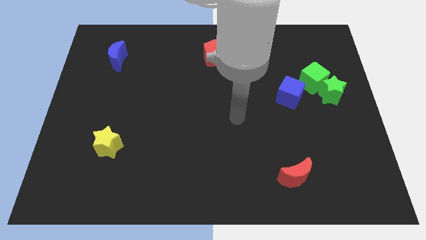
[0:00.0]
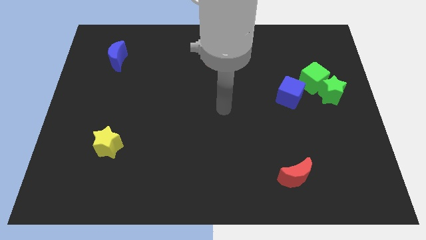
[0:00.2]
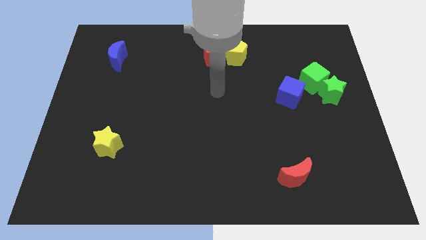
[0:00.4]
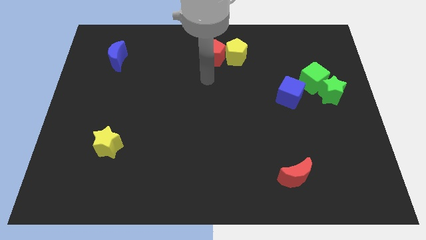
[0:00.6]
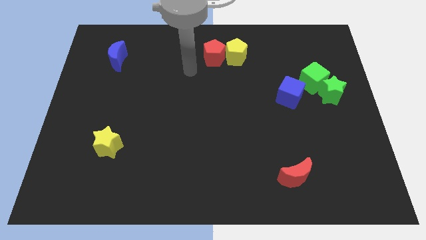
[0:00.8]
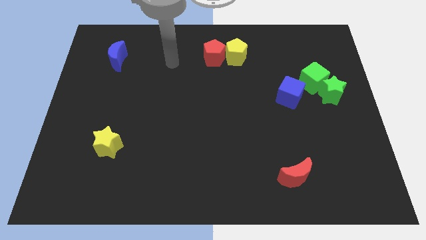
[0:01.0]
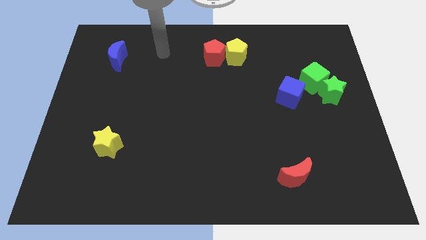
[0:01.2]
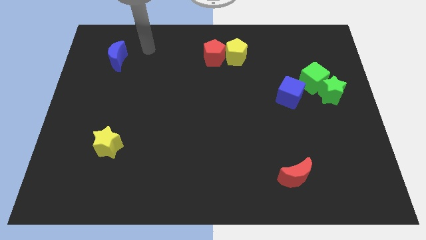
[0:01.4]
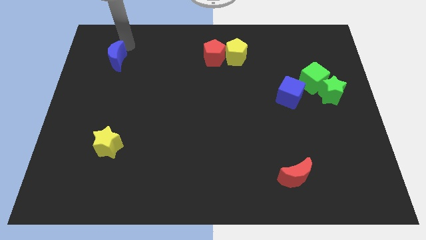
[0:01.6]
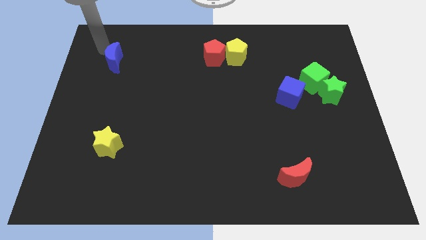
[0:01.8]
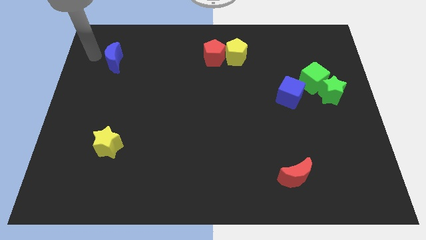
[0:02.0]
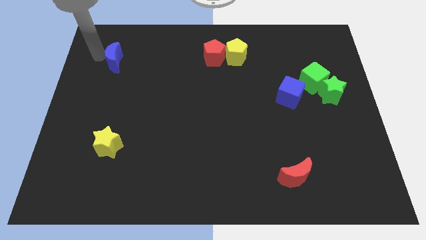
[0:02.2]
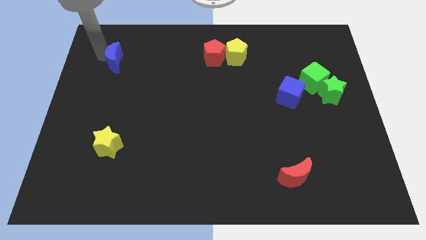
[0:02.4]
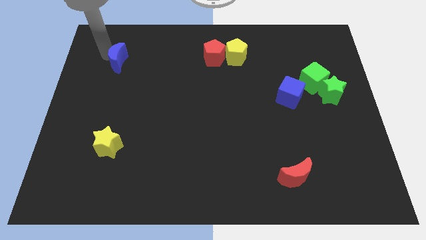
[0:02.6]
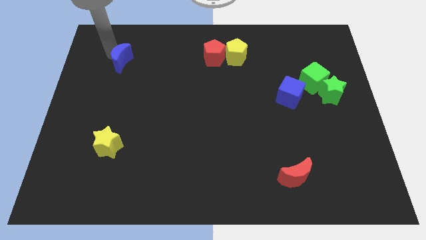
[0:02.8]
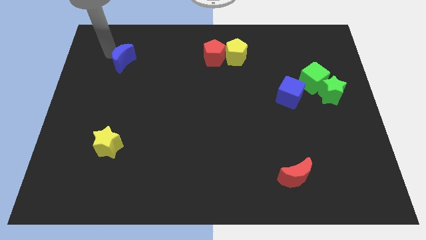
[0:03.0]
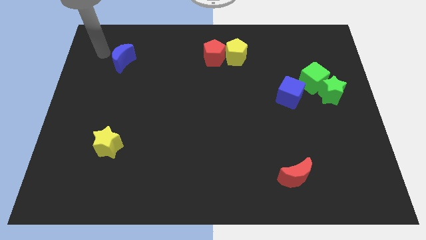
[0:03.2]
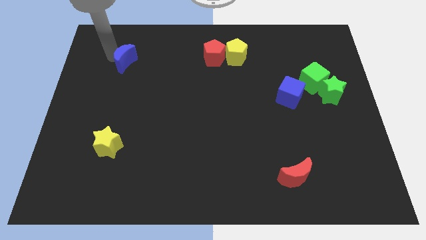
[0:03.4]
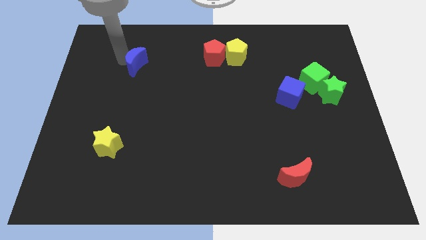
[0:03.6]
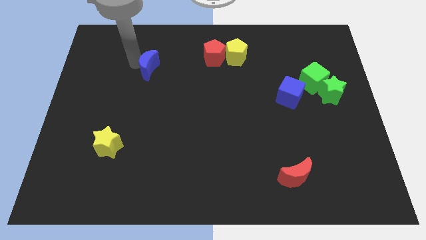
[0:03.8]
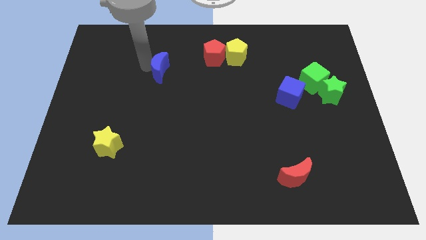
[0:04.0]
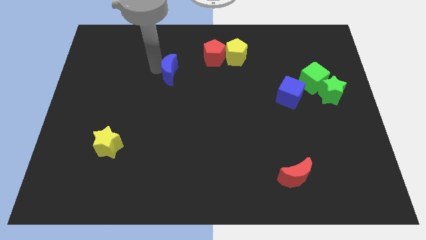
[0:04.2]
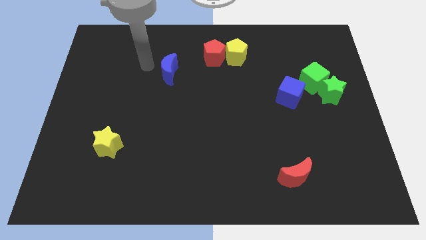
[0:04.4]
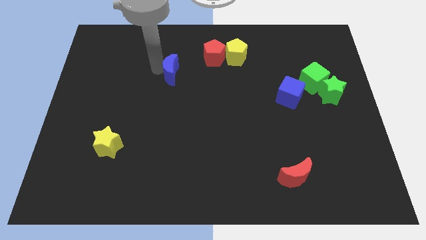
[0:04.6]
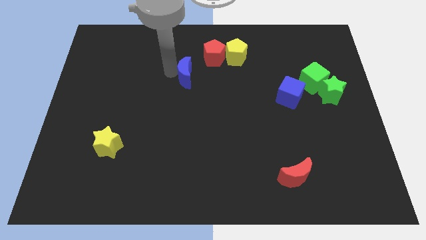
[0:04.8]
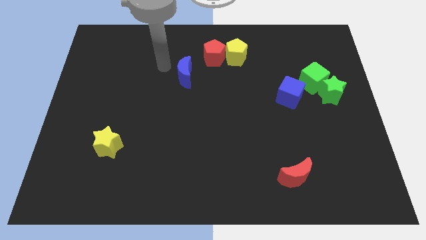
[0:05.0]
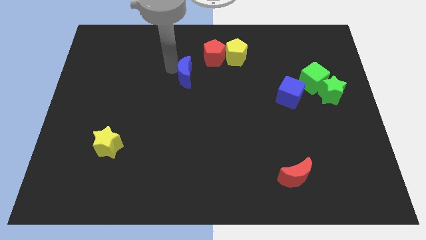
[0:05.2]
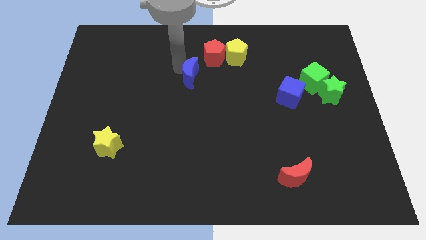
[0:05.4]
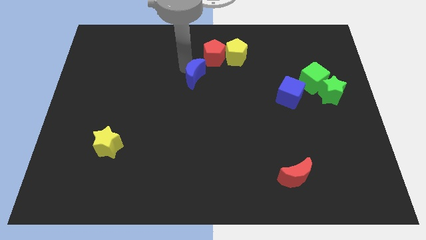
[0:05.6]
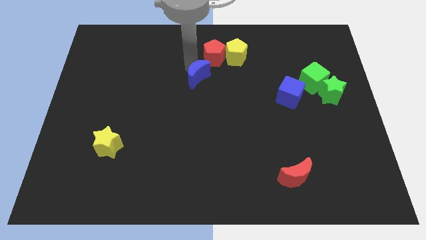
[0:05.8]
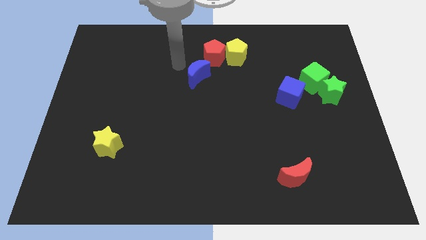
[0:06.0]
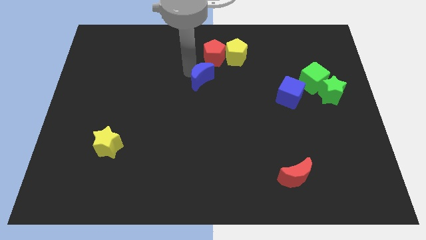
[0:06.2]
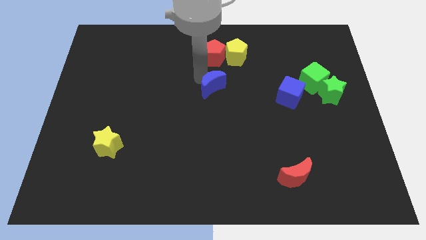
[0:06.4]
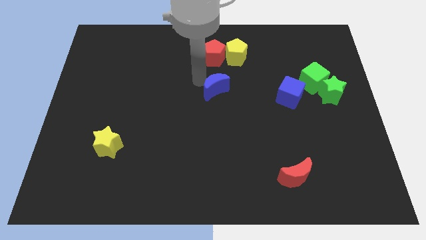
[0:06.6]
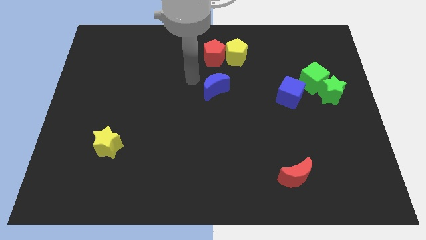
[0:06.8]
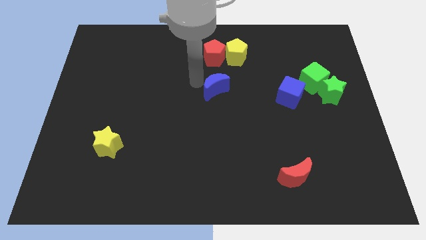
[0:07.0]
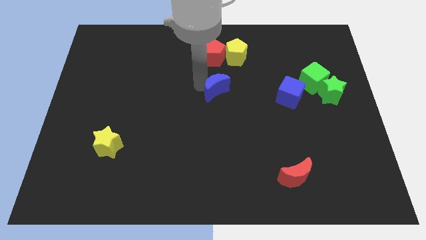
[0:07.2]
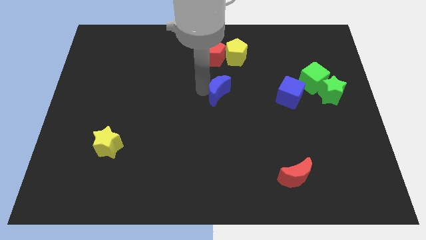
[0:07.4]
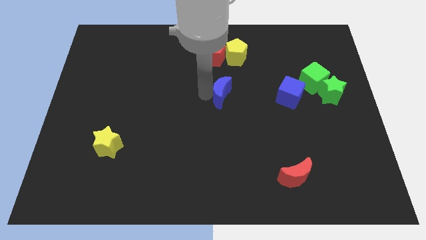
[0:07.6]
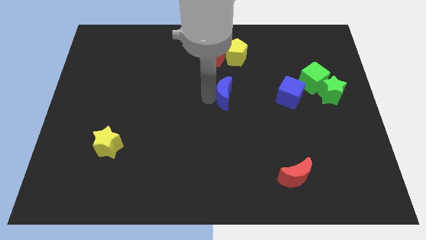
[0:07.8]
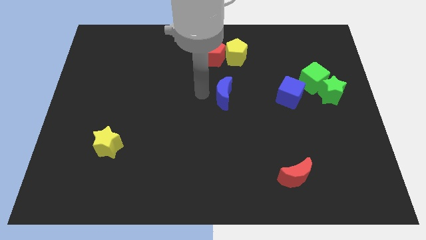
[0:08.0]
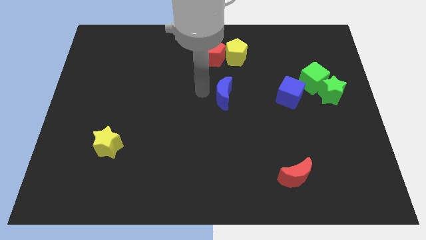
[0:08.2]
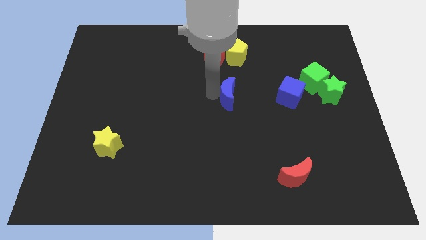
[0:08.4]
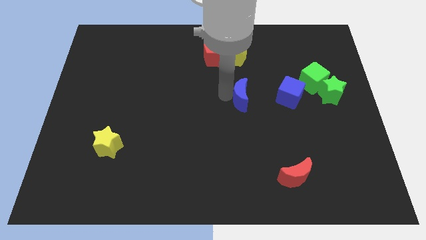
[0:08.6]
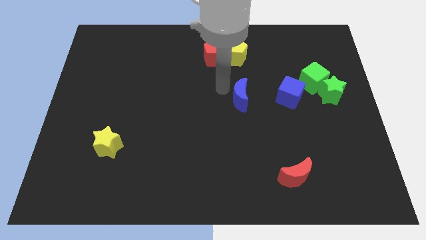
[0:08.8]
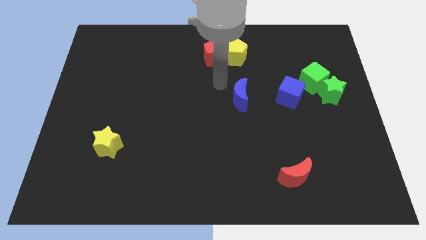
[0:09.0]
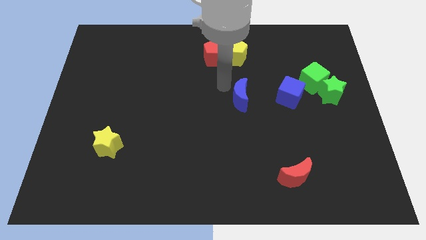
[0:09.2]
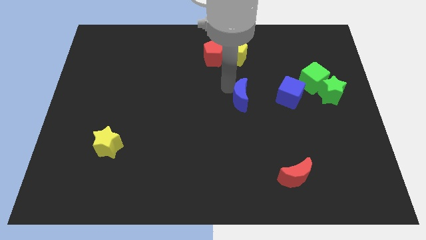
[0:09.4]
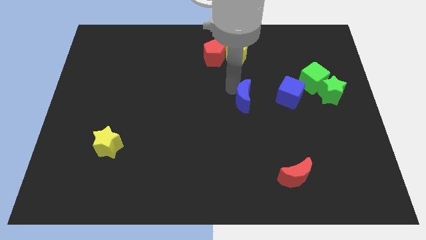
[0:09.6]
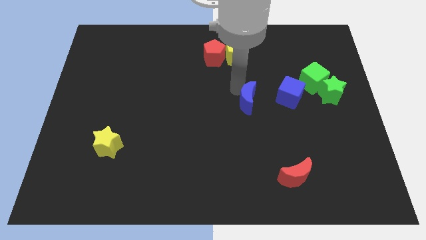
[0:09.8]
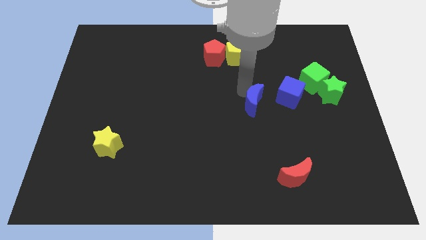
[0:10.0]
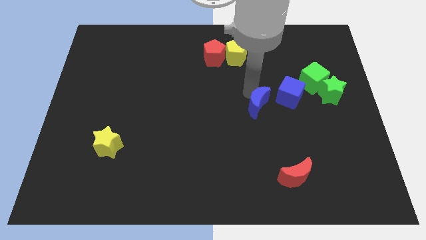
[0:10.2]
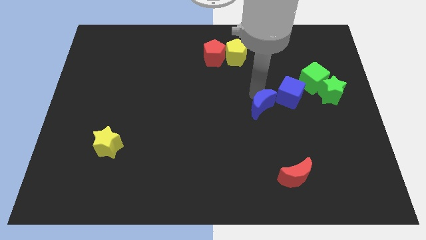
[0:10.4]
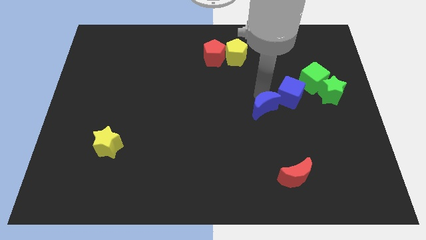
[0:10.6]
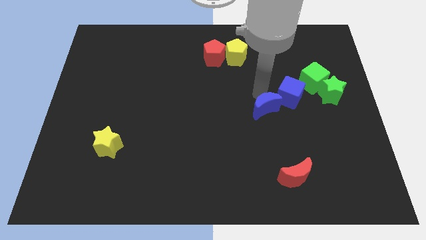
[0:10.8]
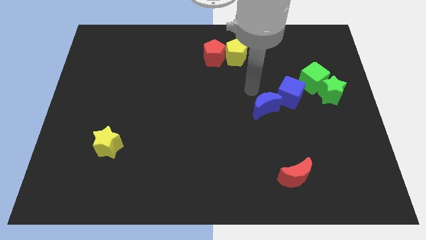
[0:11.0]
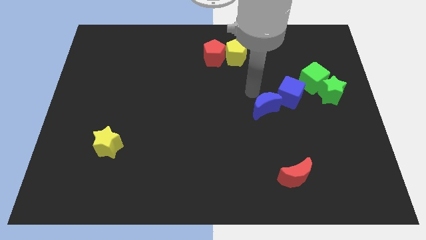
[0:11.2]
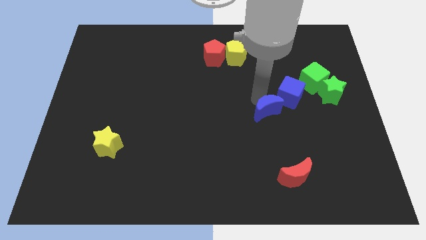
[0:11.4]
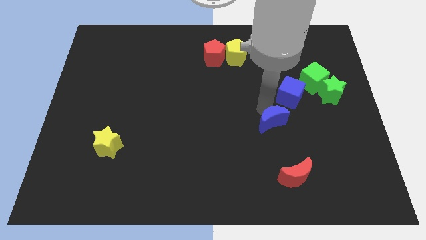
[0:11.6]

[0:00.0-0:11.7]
put the blue moon to the top side of the red moon

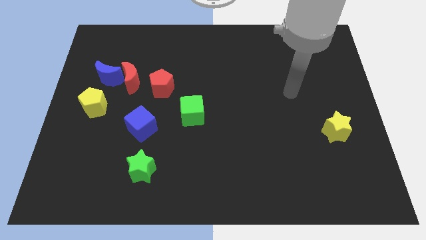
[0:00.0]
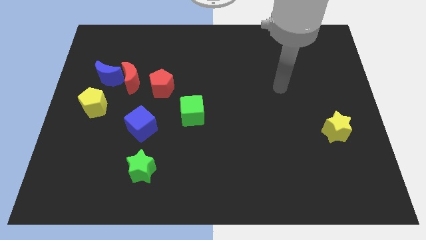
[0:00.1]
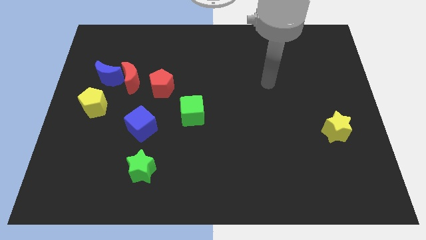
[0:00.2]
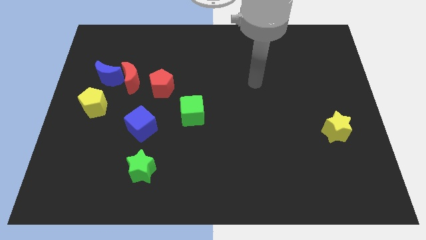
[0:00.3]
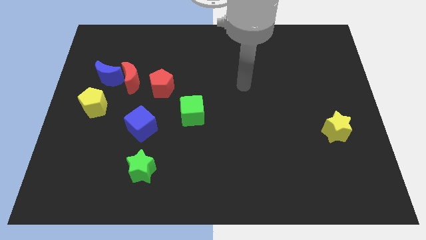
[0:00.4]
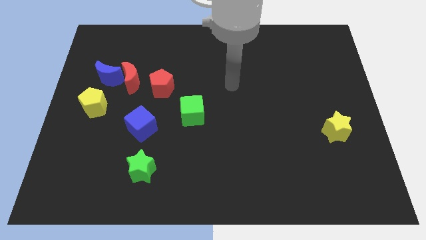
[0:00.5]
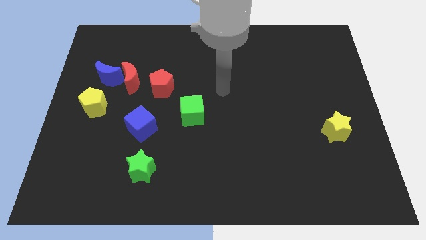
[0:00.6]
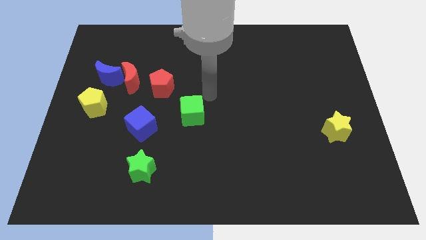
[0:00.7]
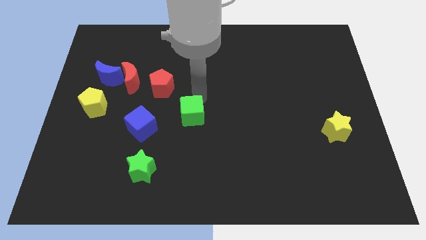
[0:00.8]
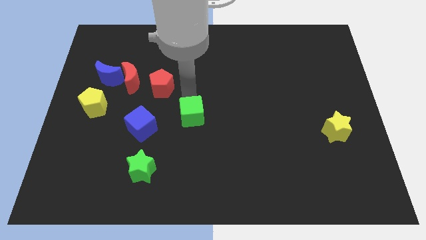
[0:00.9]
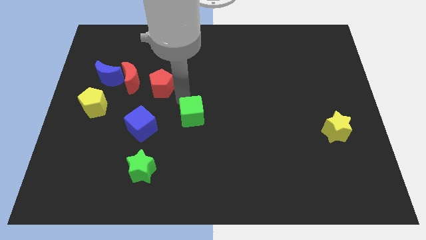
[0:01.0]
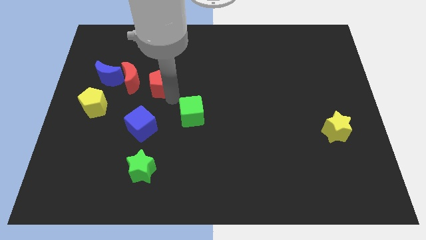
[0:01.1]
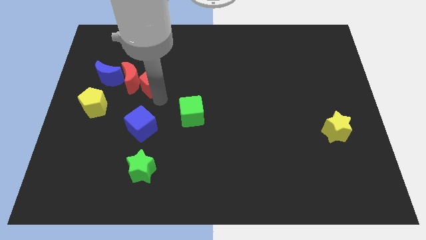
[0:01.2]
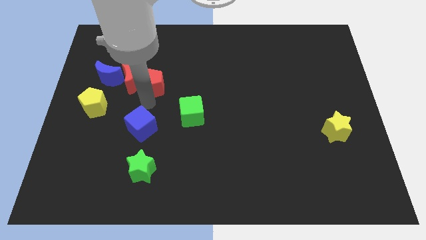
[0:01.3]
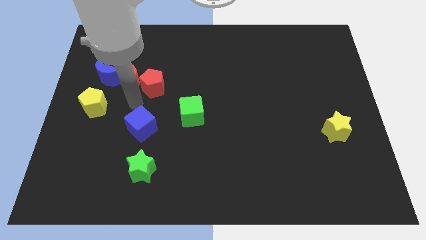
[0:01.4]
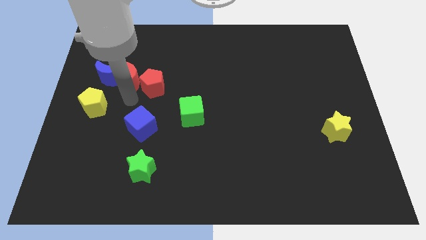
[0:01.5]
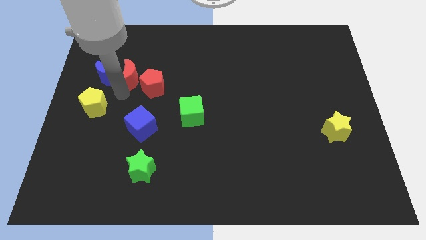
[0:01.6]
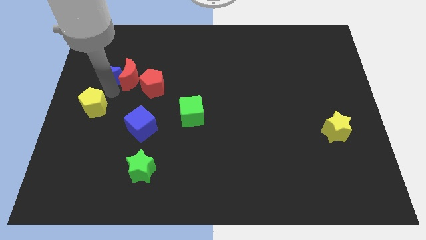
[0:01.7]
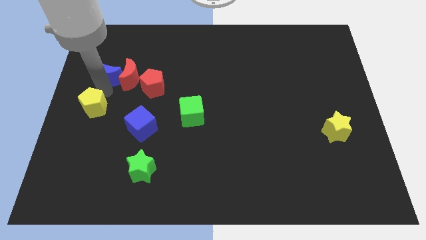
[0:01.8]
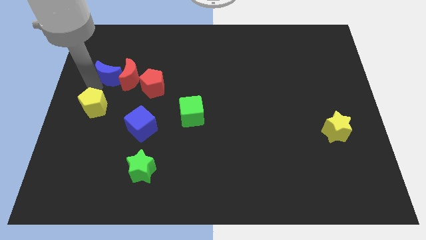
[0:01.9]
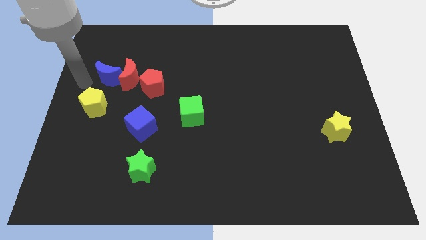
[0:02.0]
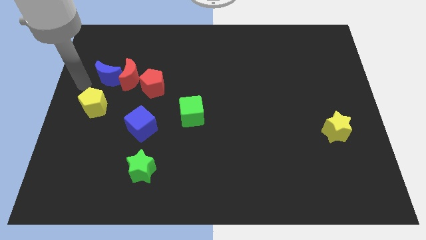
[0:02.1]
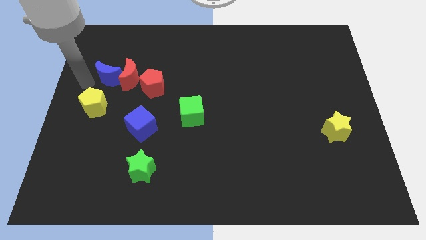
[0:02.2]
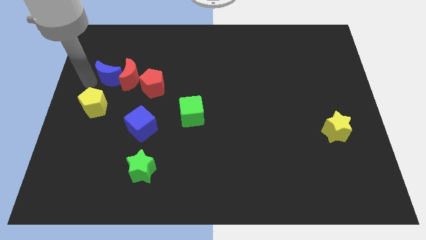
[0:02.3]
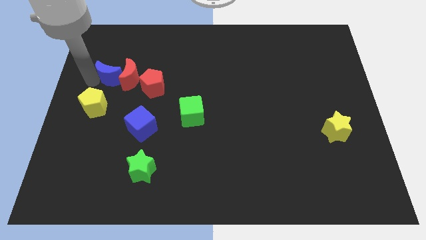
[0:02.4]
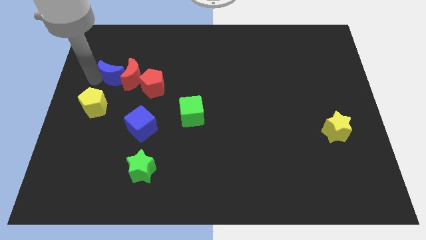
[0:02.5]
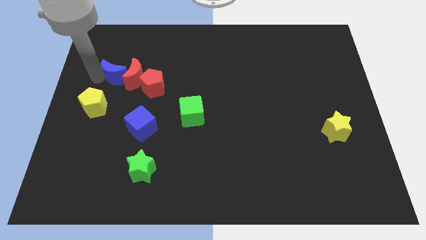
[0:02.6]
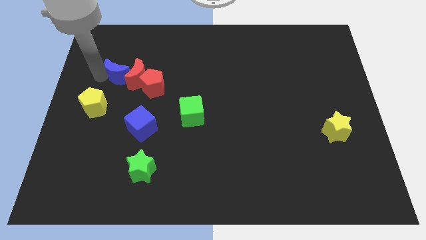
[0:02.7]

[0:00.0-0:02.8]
move the blue moon to the top left side of the red pentagon
